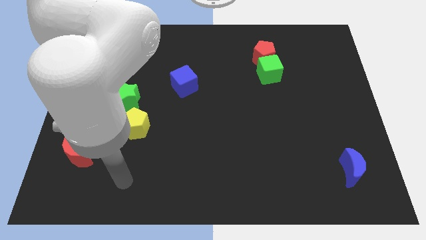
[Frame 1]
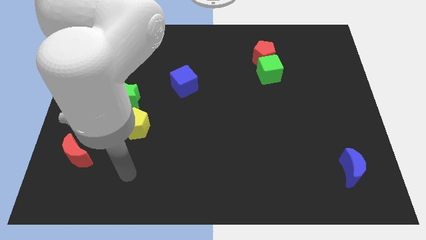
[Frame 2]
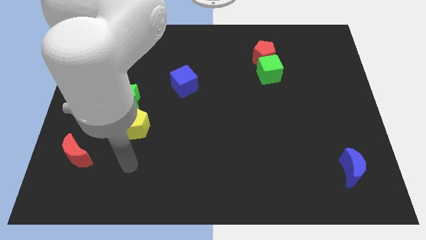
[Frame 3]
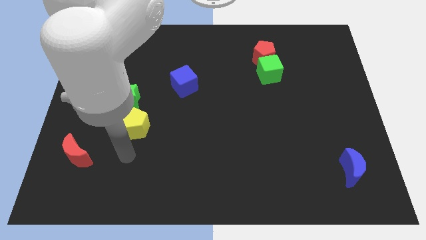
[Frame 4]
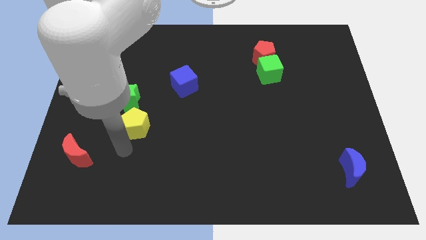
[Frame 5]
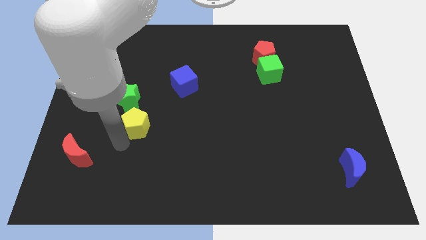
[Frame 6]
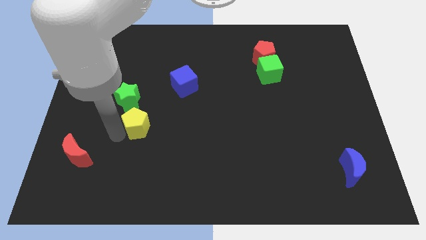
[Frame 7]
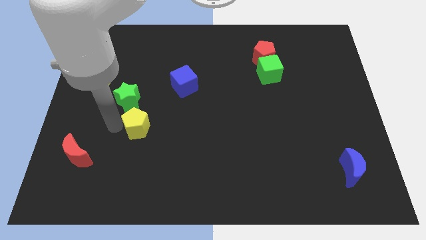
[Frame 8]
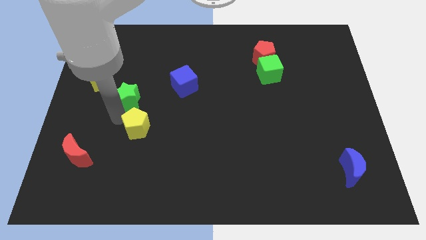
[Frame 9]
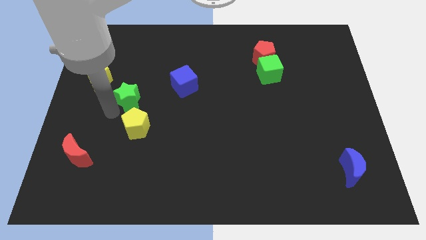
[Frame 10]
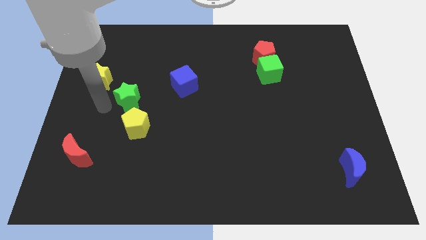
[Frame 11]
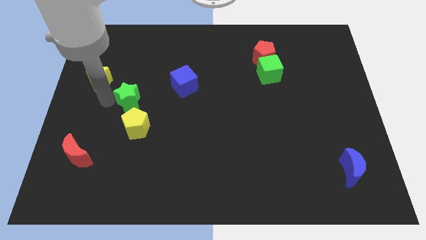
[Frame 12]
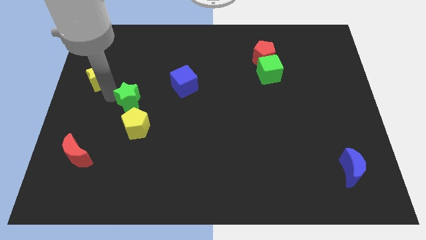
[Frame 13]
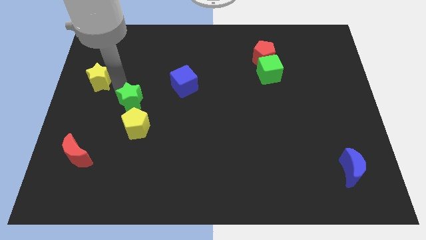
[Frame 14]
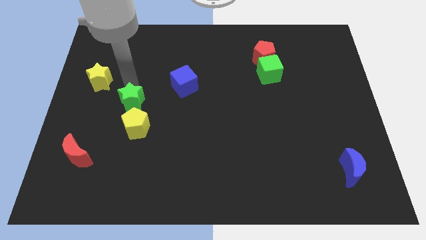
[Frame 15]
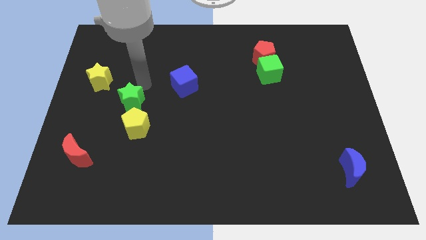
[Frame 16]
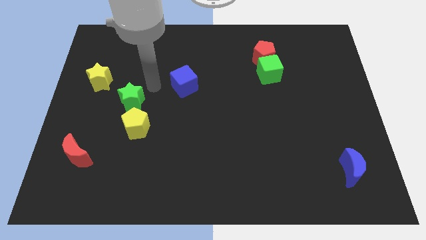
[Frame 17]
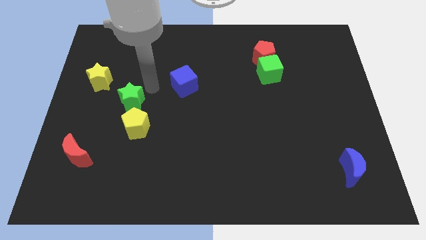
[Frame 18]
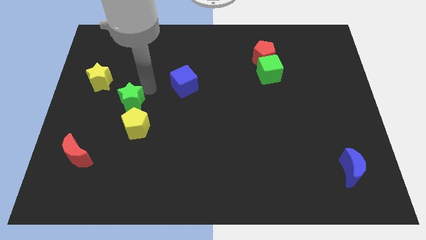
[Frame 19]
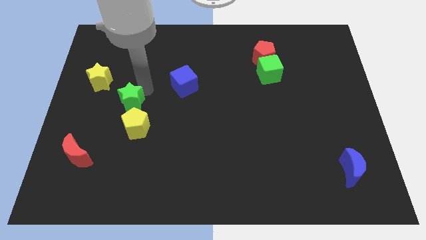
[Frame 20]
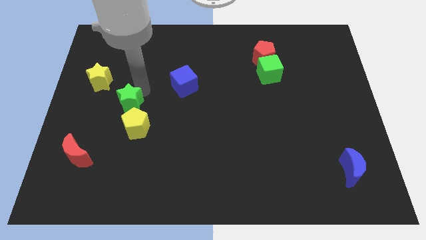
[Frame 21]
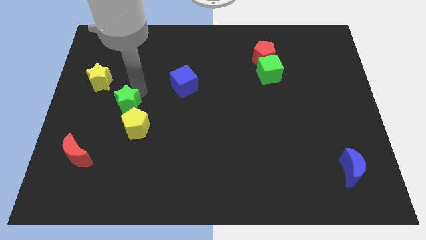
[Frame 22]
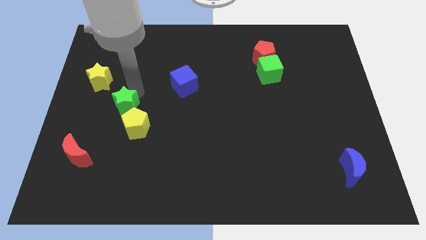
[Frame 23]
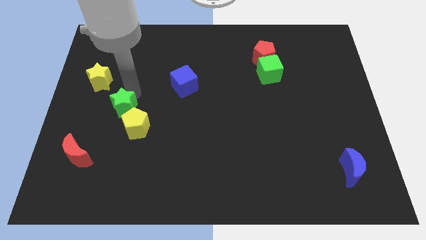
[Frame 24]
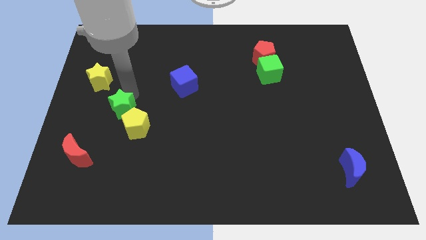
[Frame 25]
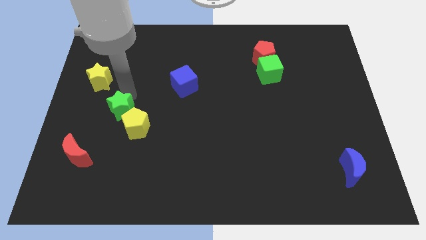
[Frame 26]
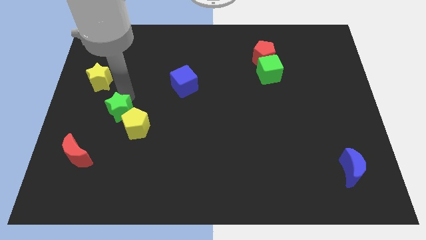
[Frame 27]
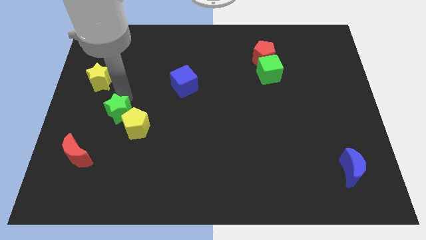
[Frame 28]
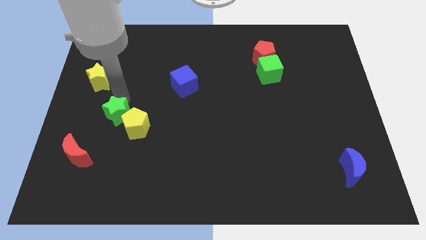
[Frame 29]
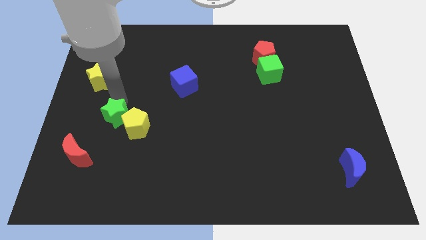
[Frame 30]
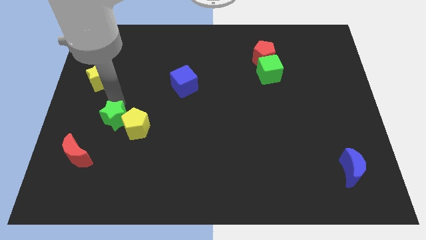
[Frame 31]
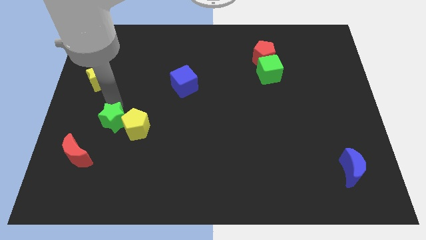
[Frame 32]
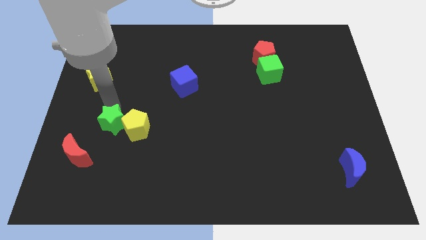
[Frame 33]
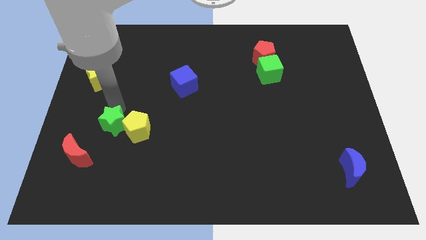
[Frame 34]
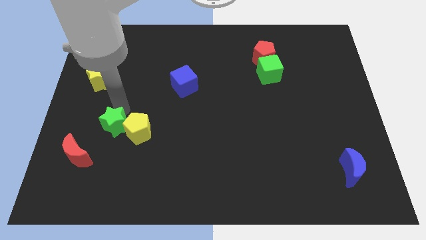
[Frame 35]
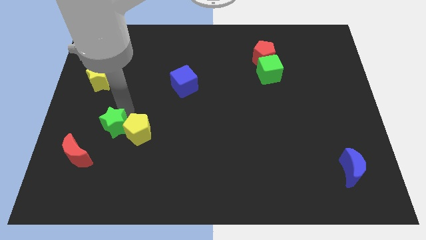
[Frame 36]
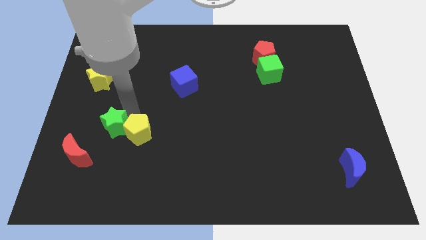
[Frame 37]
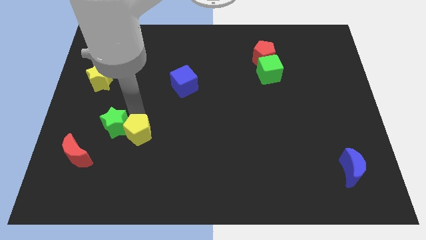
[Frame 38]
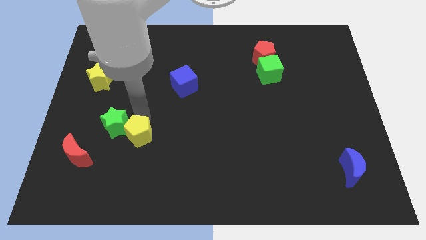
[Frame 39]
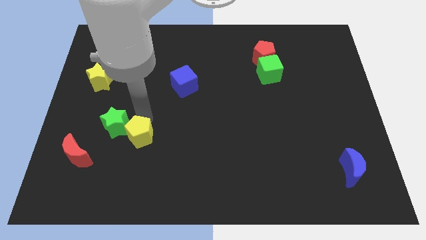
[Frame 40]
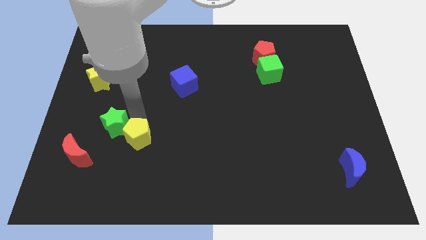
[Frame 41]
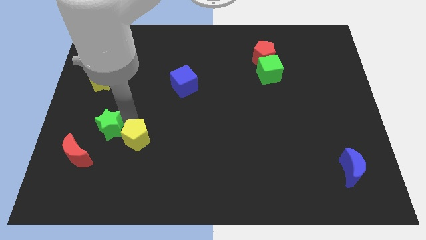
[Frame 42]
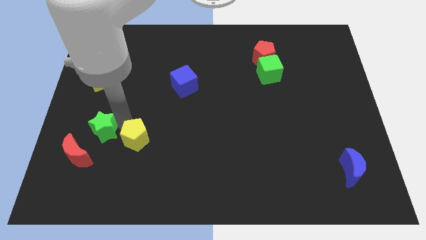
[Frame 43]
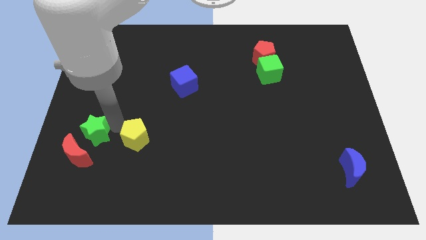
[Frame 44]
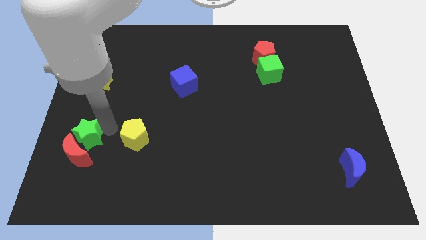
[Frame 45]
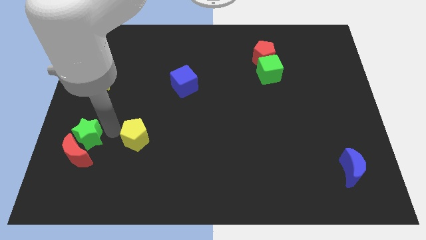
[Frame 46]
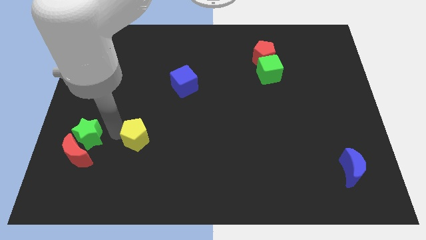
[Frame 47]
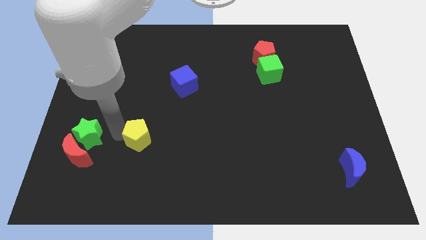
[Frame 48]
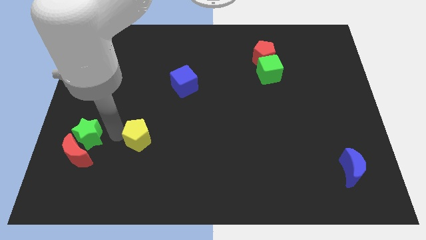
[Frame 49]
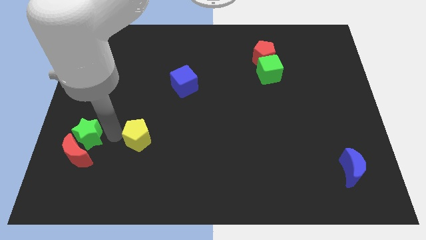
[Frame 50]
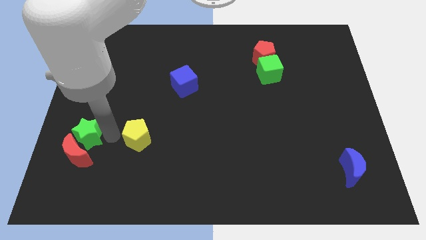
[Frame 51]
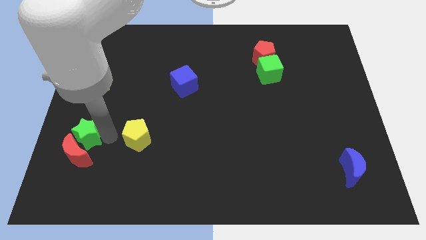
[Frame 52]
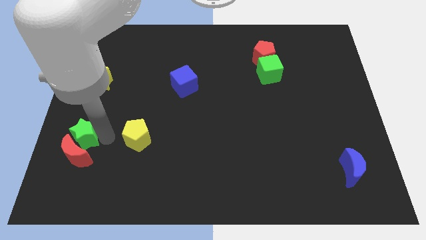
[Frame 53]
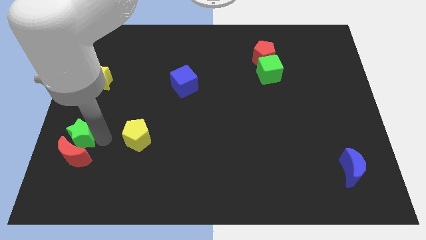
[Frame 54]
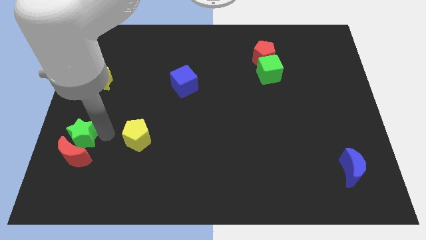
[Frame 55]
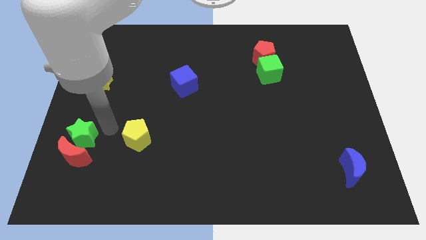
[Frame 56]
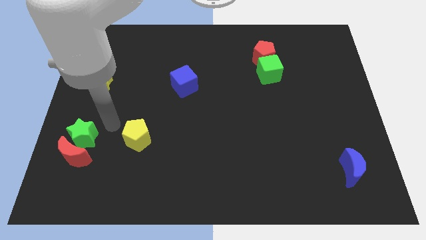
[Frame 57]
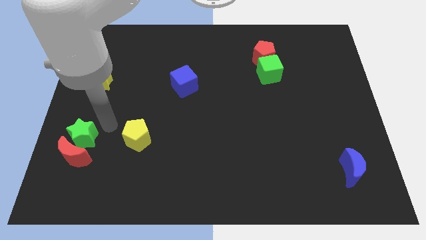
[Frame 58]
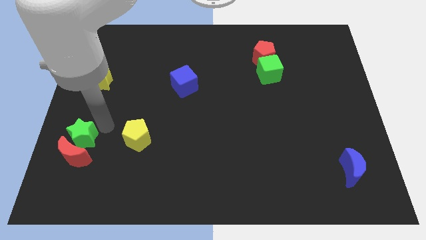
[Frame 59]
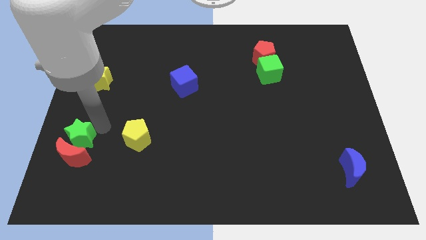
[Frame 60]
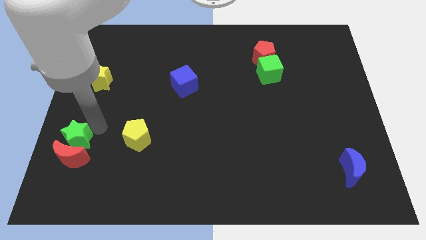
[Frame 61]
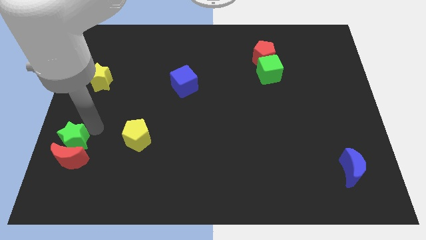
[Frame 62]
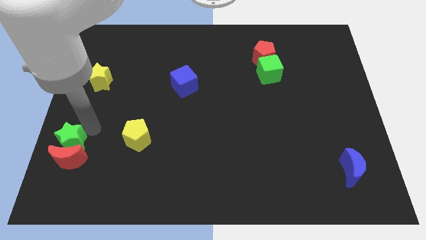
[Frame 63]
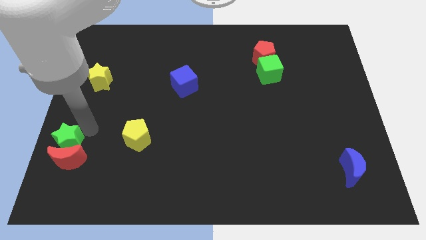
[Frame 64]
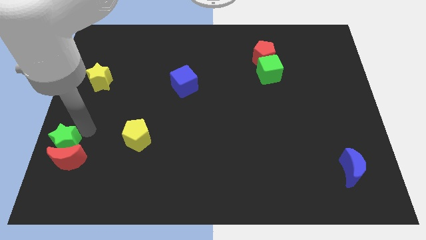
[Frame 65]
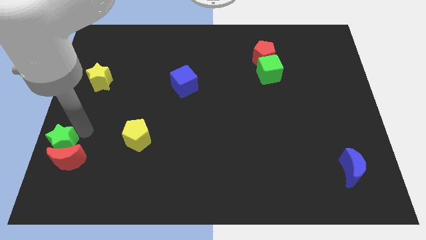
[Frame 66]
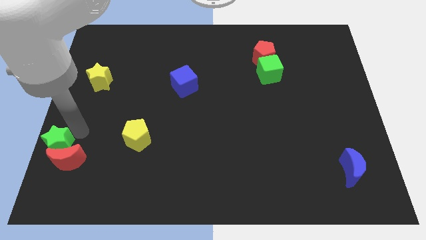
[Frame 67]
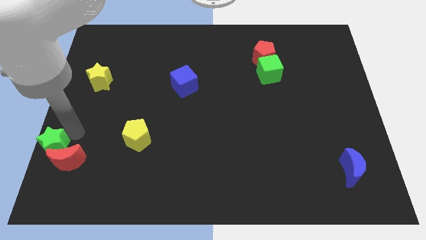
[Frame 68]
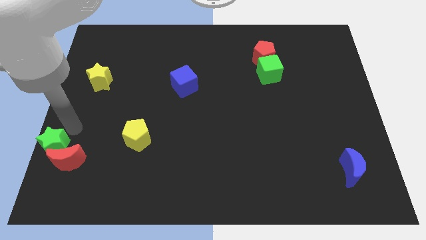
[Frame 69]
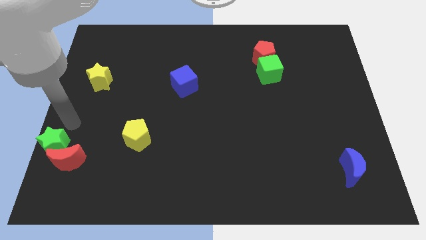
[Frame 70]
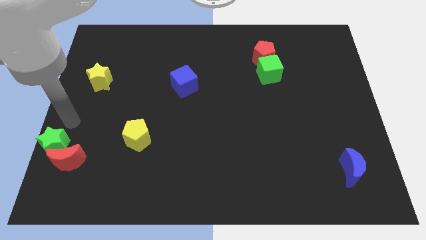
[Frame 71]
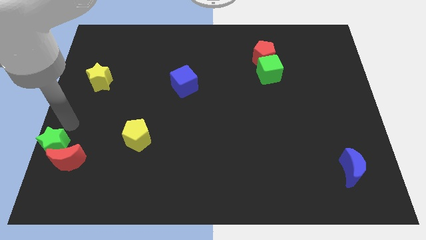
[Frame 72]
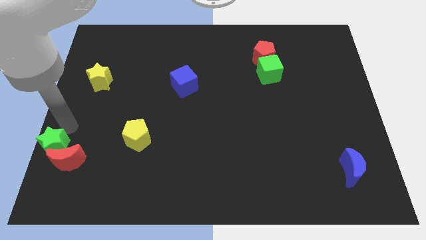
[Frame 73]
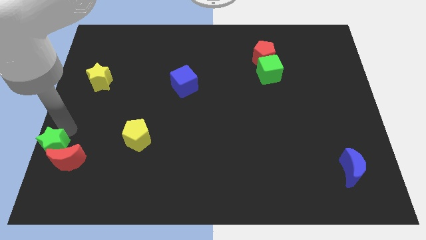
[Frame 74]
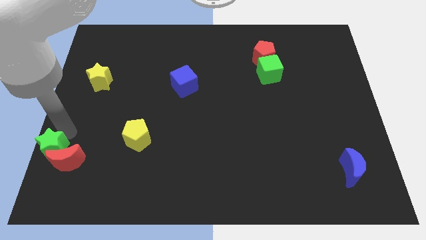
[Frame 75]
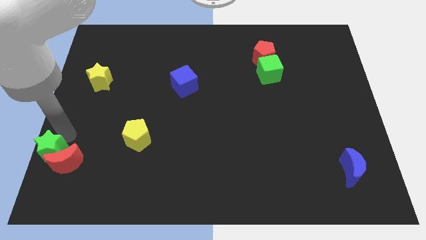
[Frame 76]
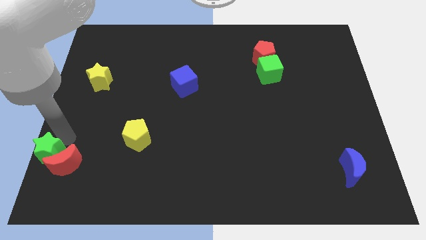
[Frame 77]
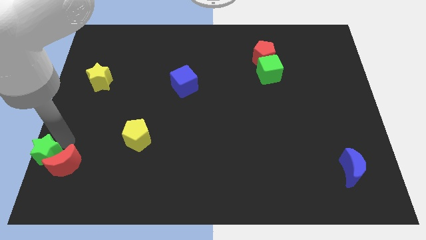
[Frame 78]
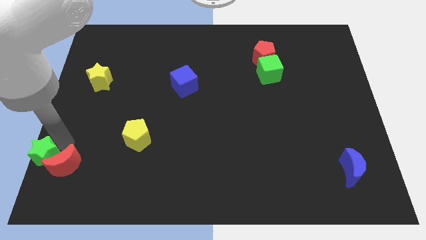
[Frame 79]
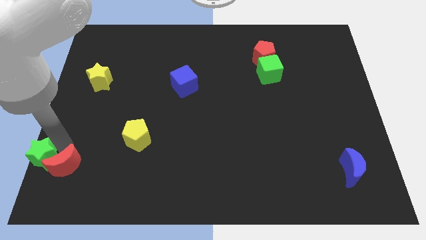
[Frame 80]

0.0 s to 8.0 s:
move the green star to the bottom left
